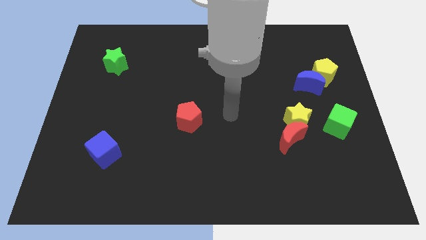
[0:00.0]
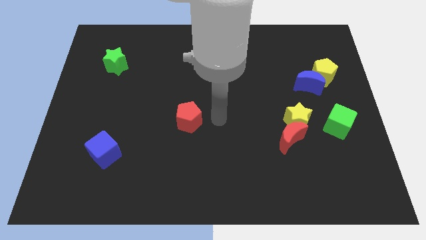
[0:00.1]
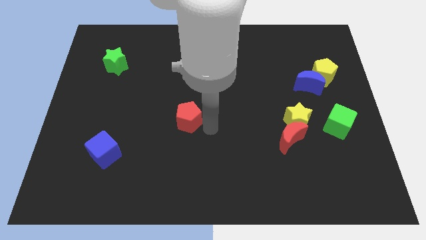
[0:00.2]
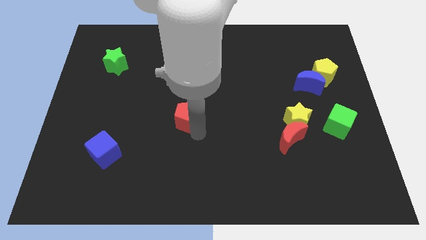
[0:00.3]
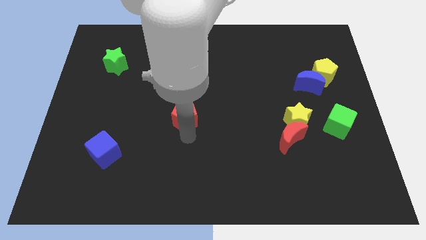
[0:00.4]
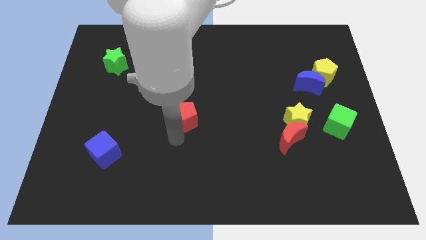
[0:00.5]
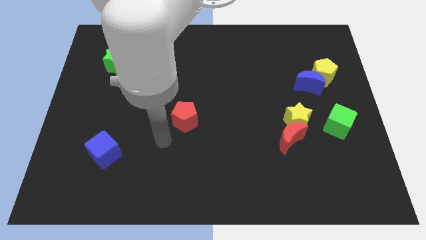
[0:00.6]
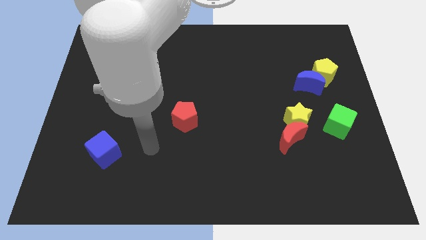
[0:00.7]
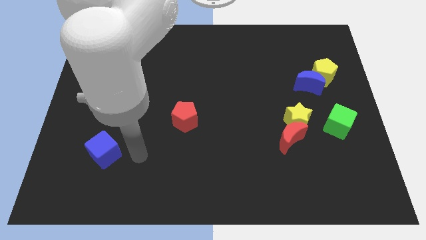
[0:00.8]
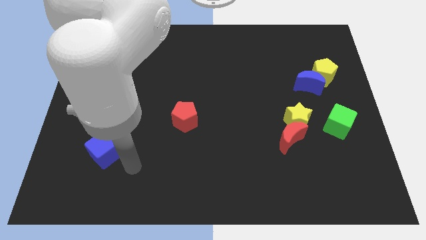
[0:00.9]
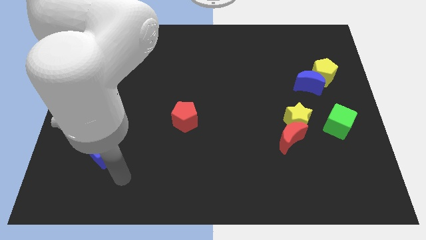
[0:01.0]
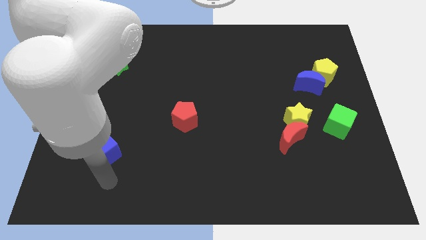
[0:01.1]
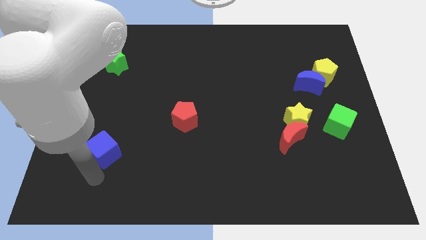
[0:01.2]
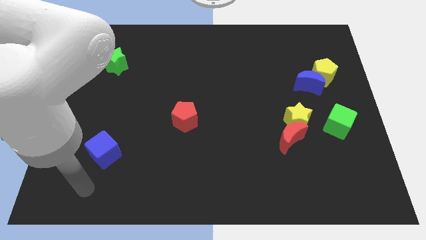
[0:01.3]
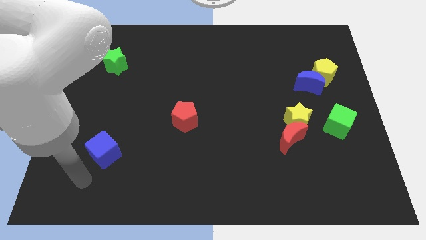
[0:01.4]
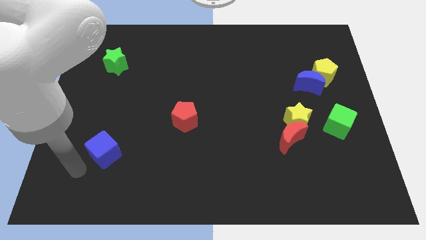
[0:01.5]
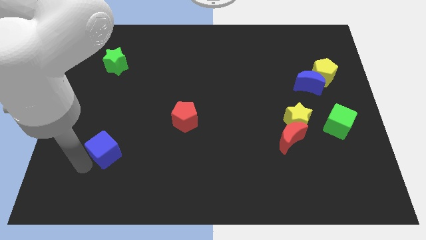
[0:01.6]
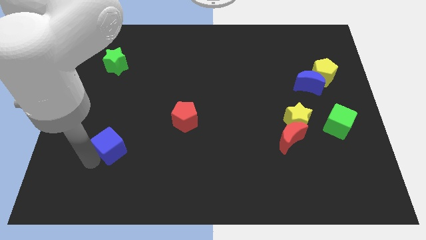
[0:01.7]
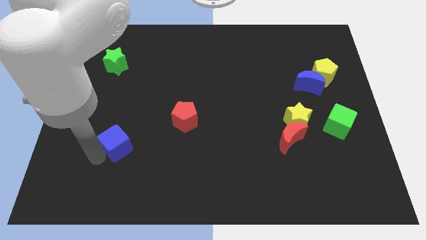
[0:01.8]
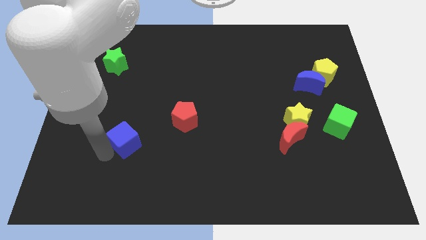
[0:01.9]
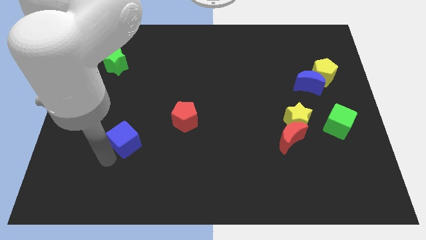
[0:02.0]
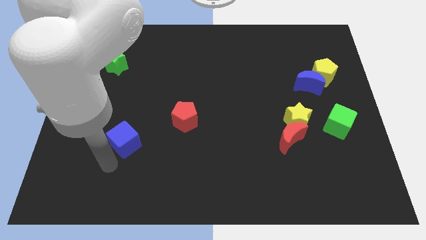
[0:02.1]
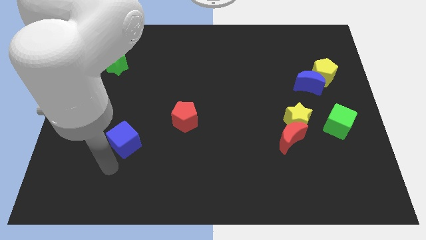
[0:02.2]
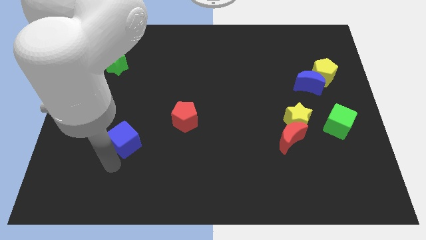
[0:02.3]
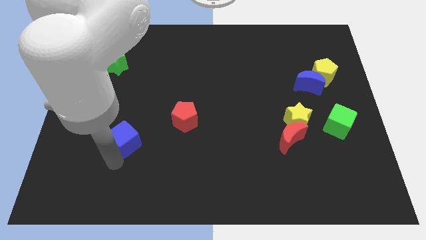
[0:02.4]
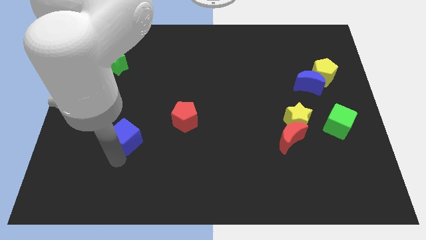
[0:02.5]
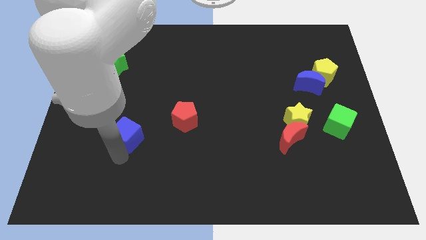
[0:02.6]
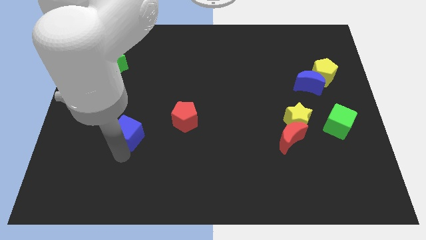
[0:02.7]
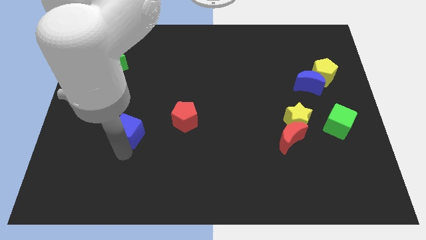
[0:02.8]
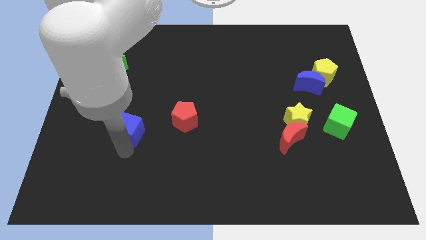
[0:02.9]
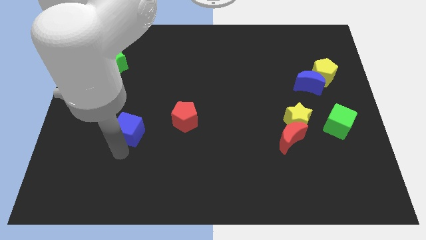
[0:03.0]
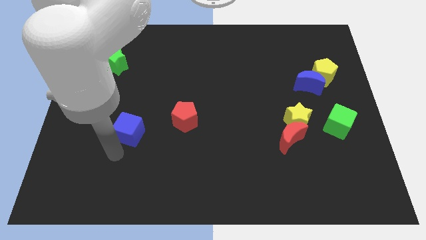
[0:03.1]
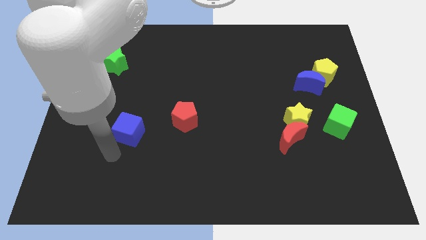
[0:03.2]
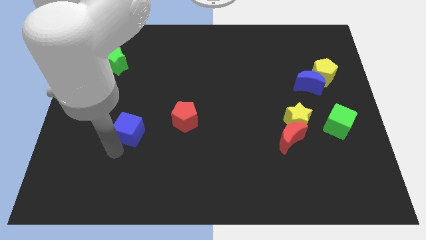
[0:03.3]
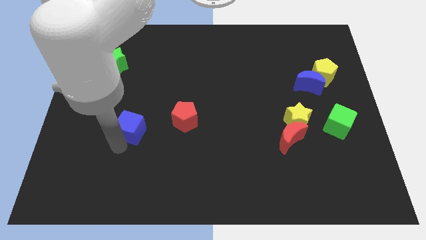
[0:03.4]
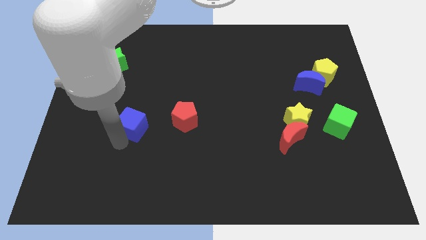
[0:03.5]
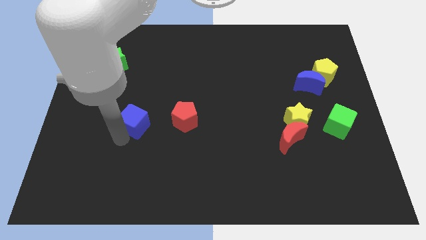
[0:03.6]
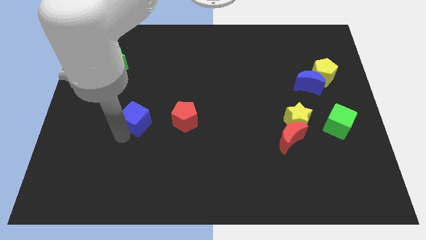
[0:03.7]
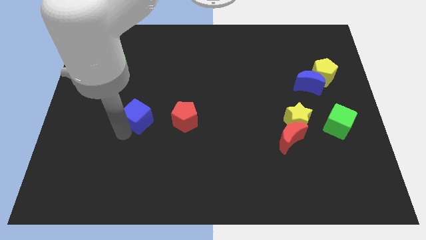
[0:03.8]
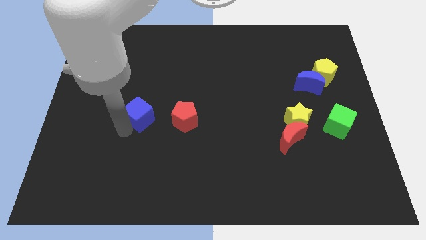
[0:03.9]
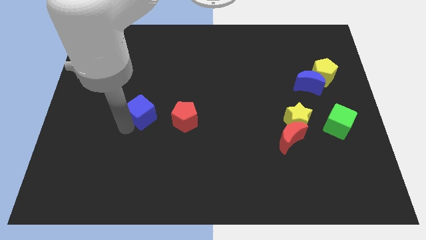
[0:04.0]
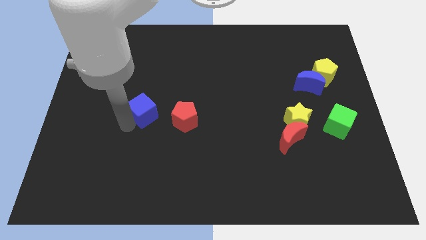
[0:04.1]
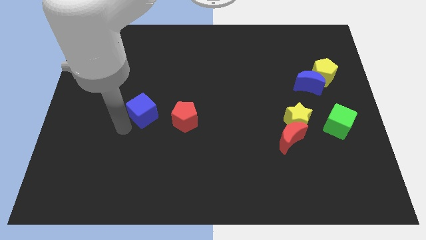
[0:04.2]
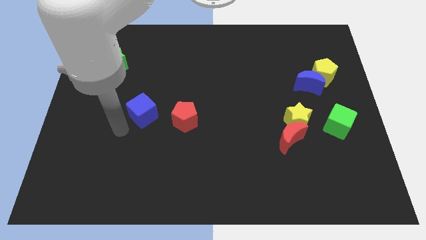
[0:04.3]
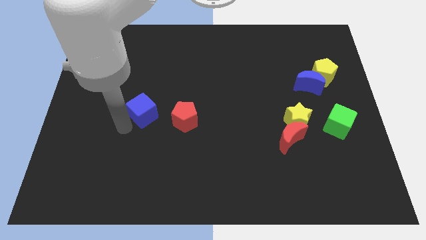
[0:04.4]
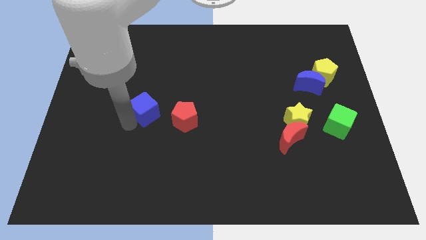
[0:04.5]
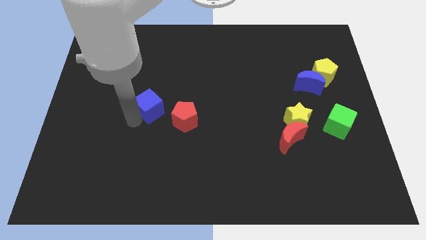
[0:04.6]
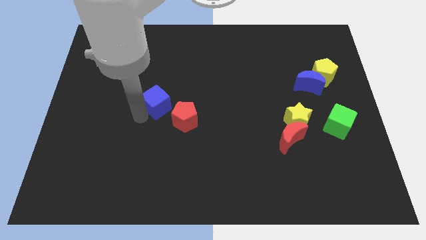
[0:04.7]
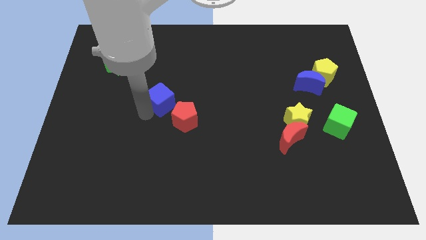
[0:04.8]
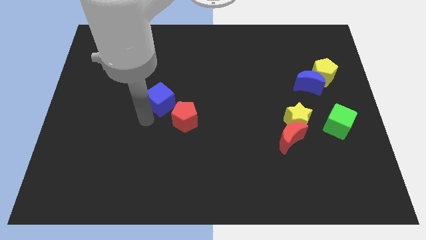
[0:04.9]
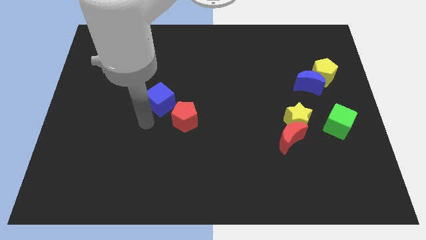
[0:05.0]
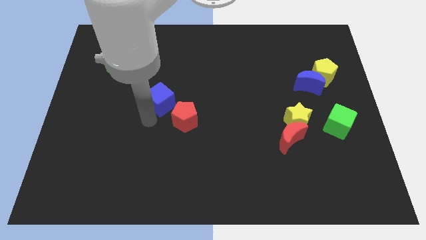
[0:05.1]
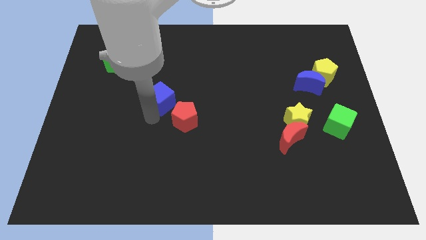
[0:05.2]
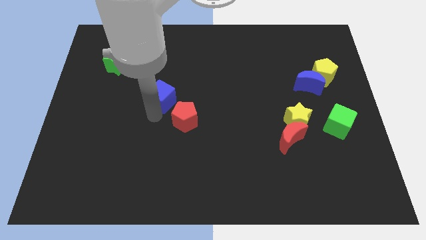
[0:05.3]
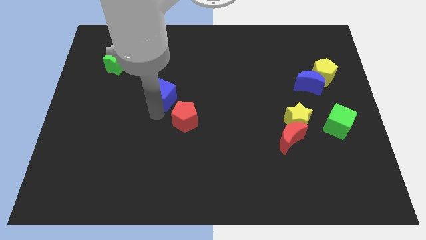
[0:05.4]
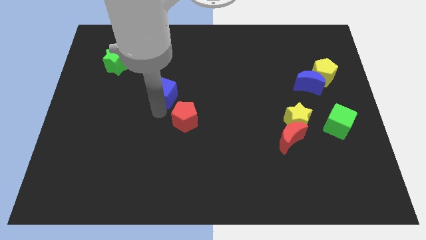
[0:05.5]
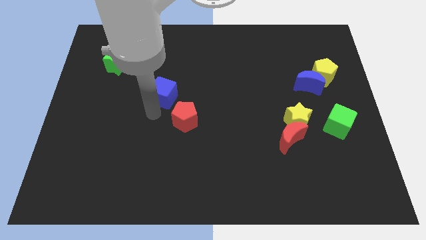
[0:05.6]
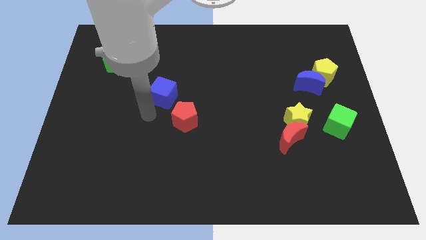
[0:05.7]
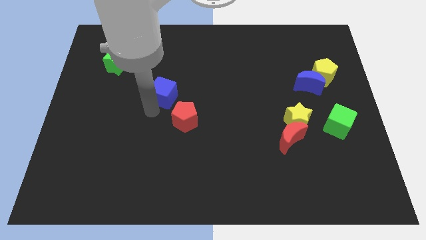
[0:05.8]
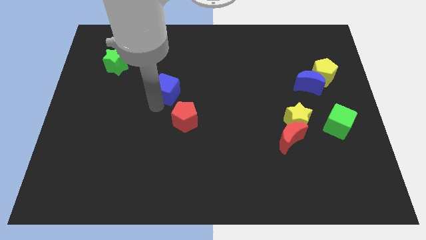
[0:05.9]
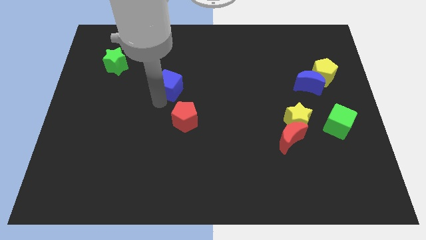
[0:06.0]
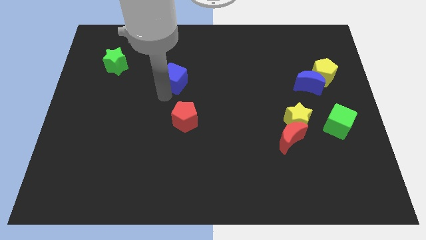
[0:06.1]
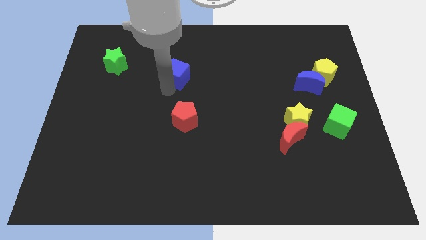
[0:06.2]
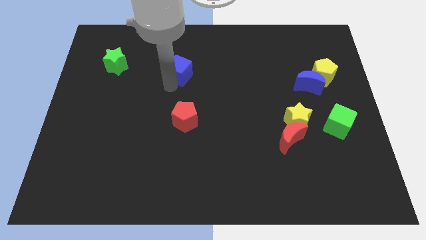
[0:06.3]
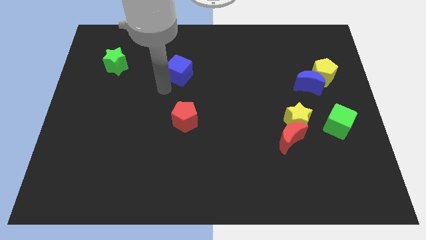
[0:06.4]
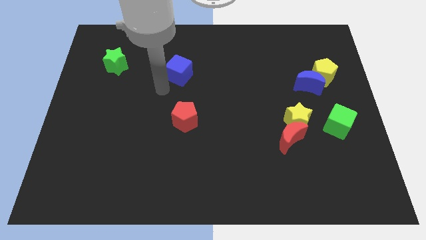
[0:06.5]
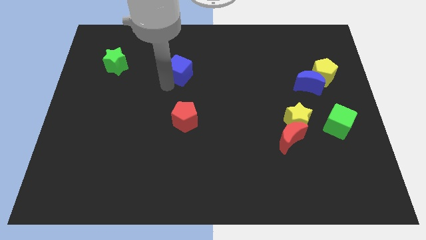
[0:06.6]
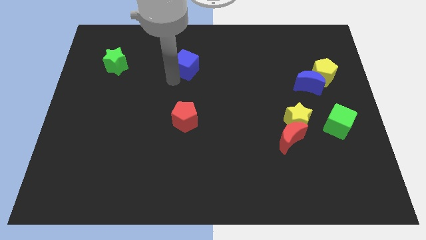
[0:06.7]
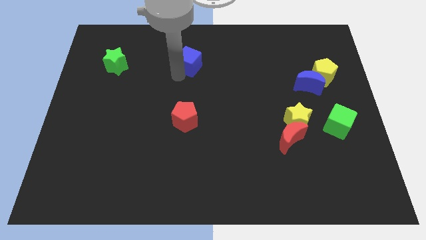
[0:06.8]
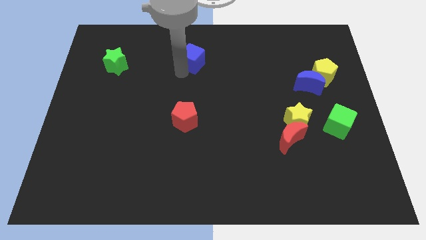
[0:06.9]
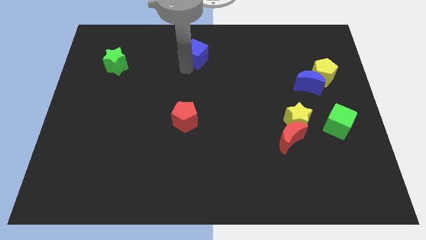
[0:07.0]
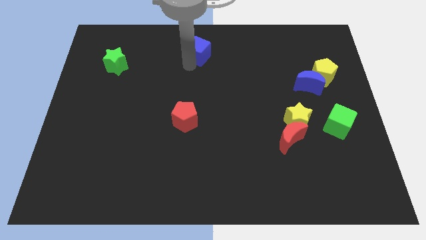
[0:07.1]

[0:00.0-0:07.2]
slide the blue cube to the towards your base
